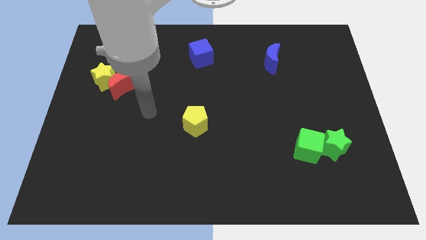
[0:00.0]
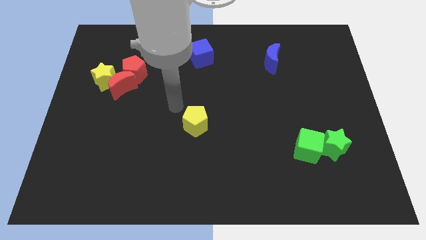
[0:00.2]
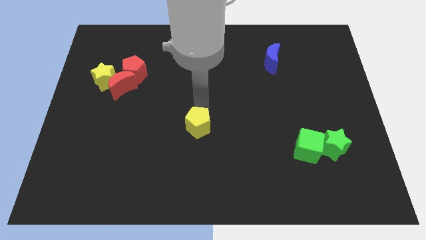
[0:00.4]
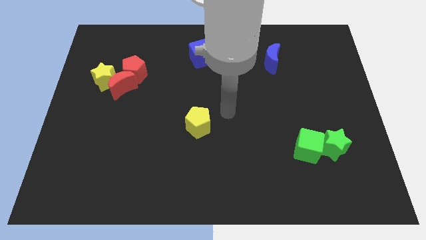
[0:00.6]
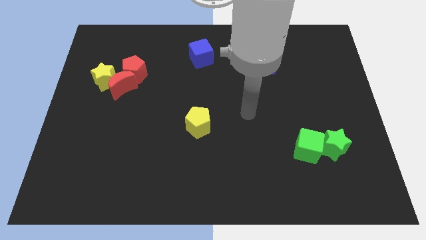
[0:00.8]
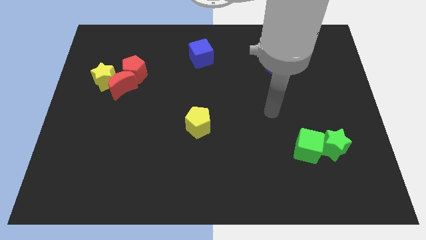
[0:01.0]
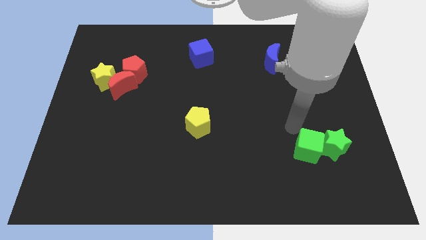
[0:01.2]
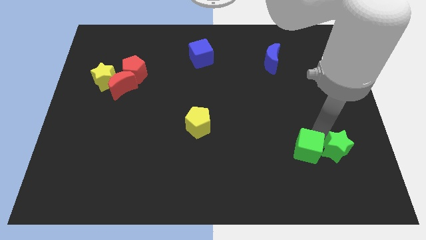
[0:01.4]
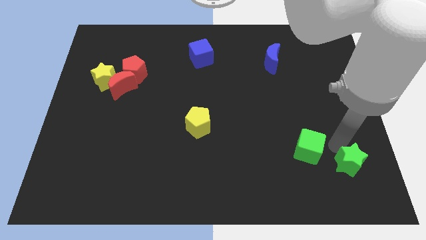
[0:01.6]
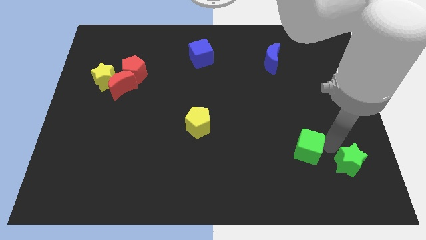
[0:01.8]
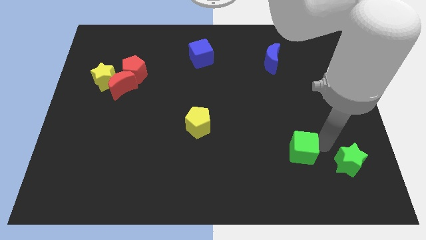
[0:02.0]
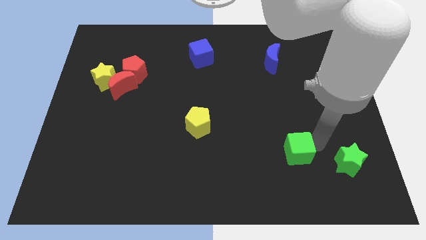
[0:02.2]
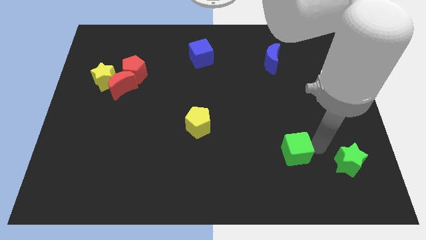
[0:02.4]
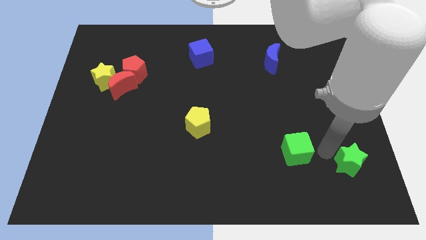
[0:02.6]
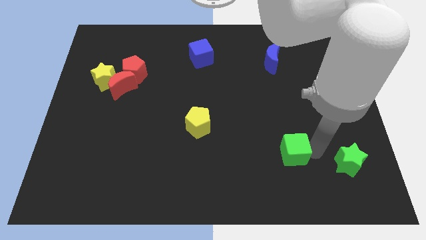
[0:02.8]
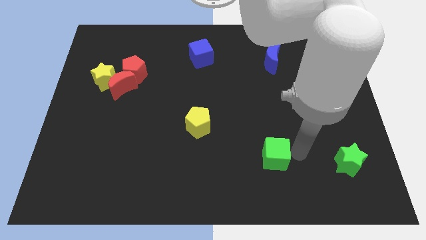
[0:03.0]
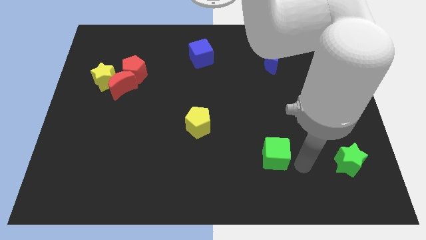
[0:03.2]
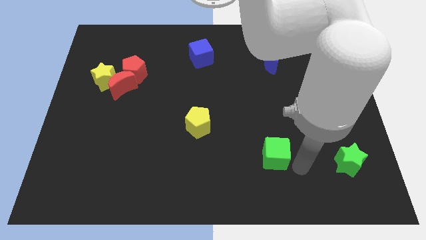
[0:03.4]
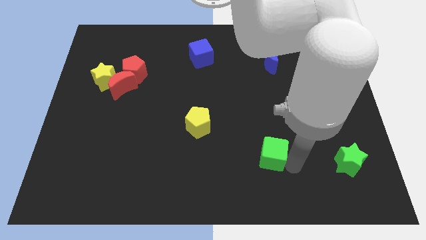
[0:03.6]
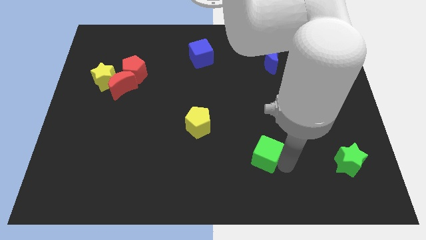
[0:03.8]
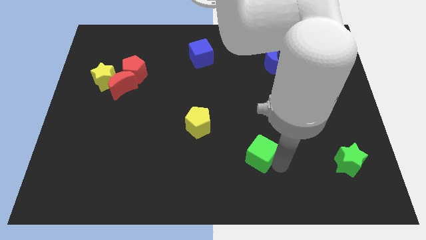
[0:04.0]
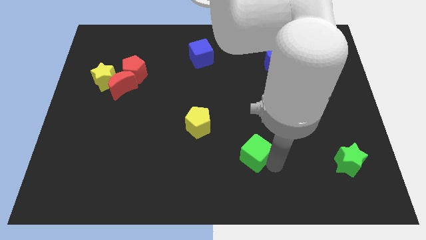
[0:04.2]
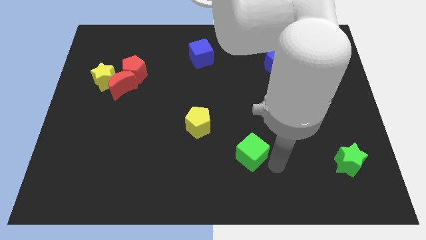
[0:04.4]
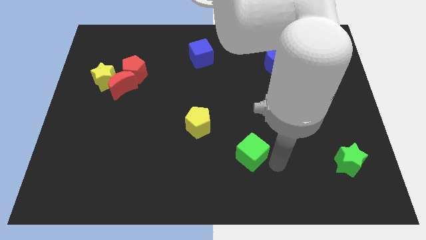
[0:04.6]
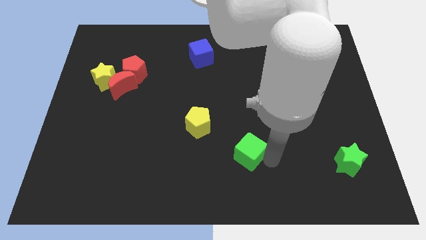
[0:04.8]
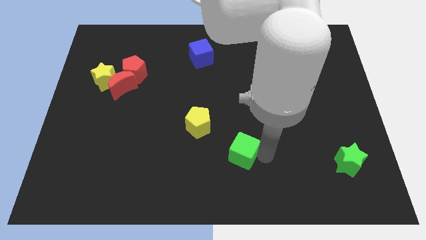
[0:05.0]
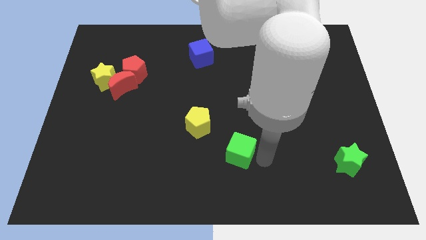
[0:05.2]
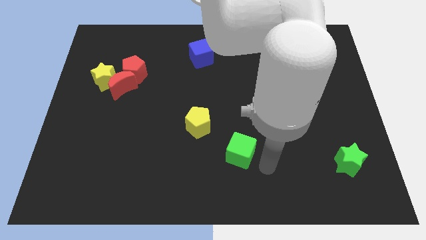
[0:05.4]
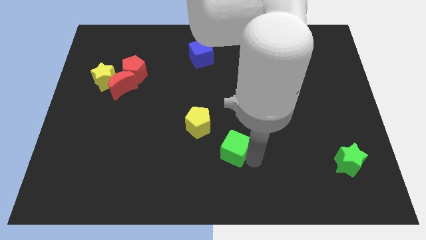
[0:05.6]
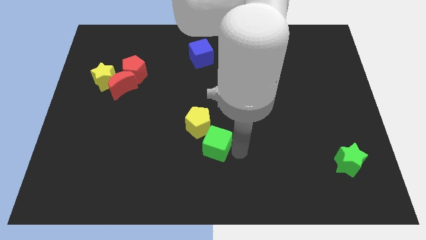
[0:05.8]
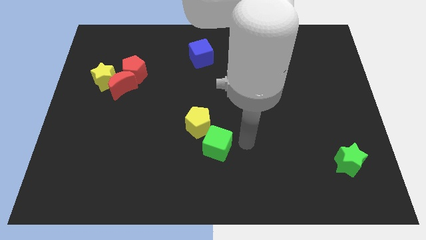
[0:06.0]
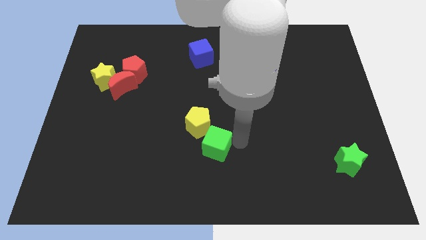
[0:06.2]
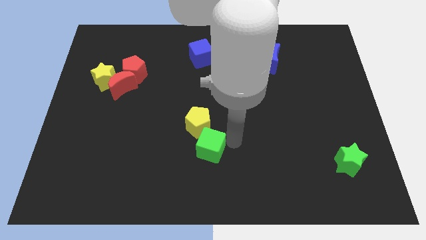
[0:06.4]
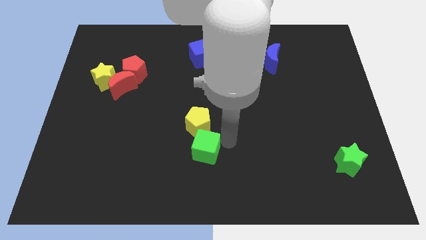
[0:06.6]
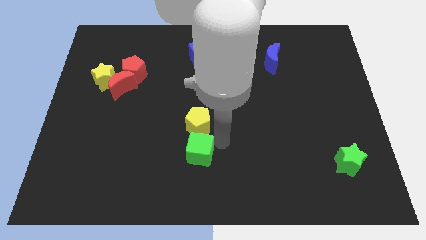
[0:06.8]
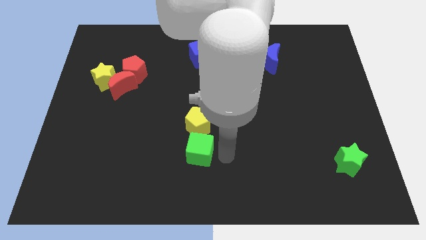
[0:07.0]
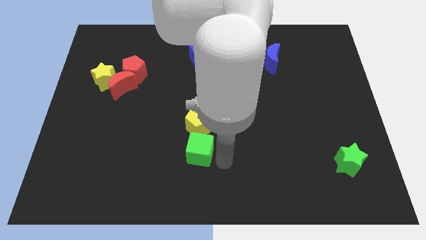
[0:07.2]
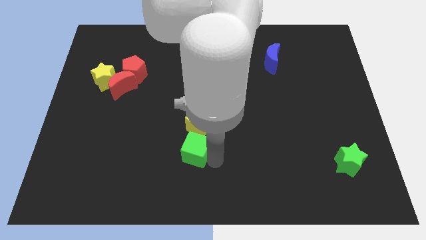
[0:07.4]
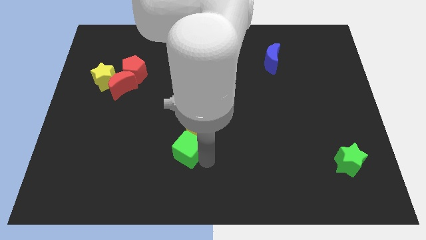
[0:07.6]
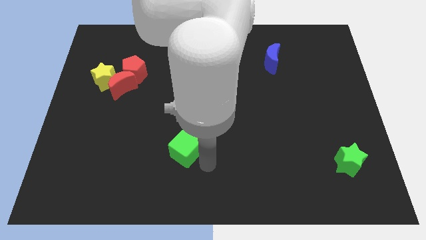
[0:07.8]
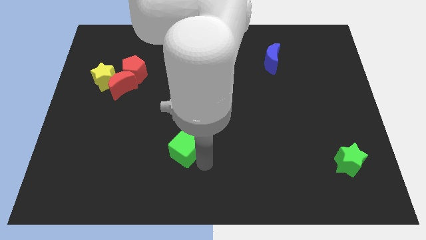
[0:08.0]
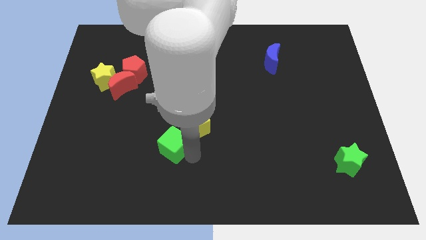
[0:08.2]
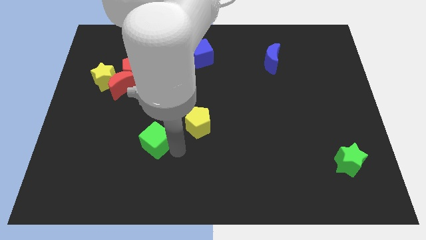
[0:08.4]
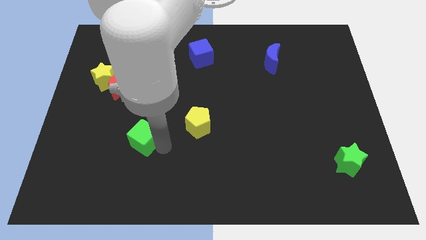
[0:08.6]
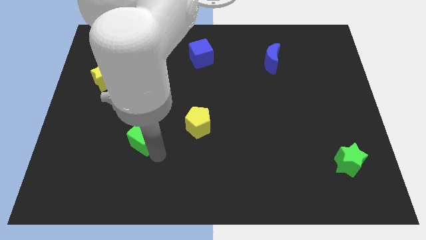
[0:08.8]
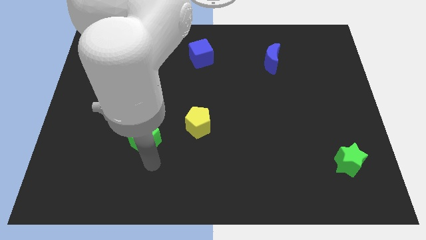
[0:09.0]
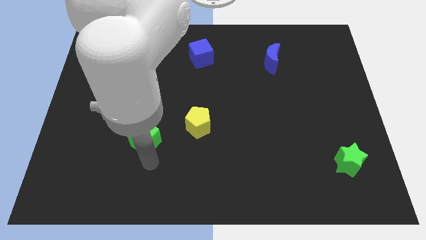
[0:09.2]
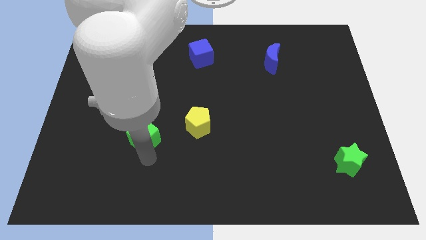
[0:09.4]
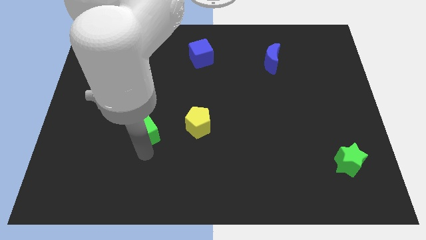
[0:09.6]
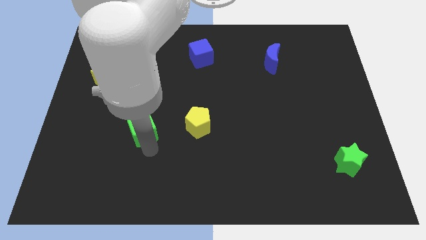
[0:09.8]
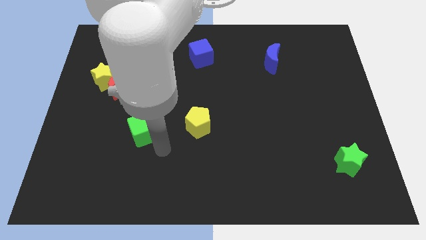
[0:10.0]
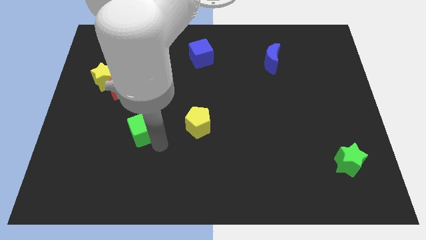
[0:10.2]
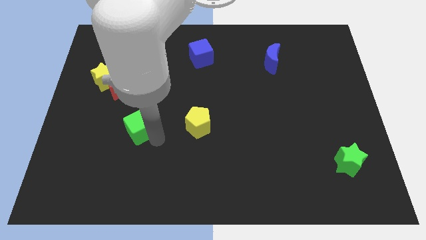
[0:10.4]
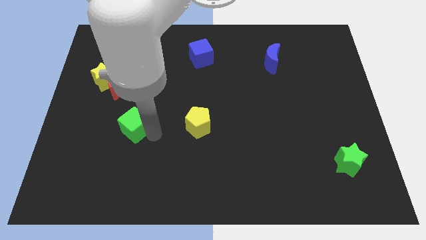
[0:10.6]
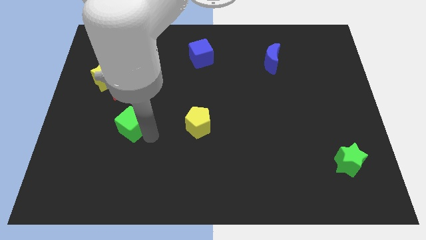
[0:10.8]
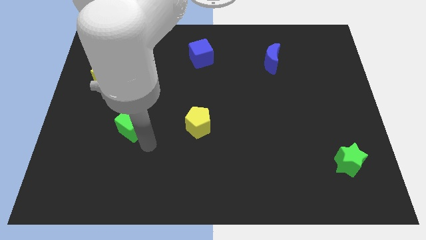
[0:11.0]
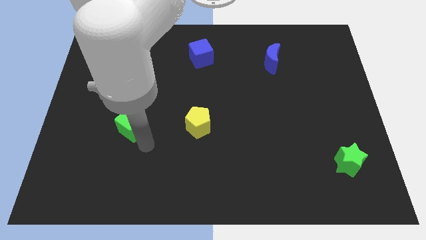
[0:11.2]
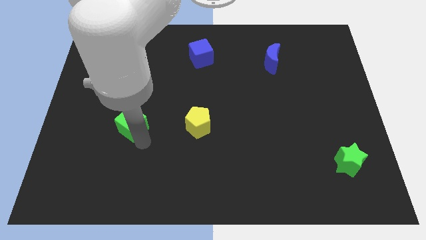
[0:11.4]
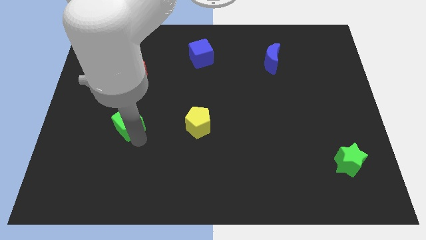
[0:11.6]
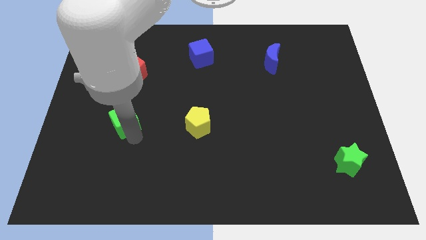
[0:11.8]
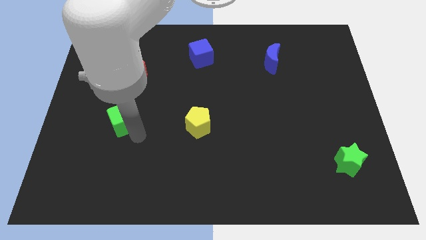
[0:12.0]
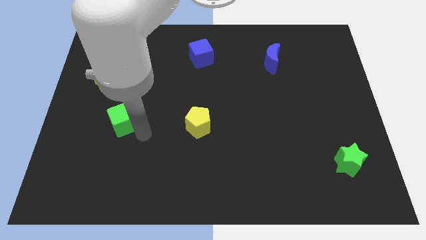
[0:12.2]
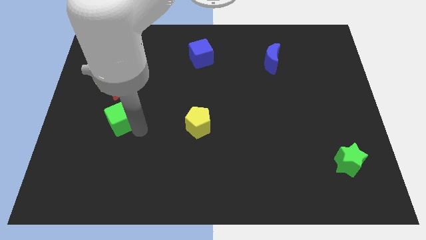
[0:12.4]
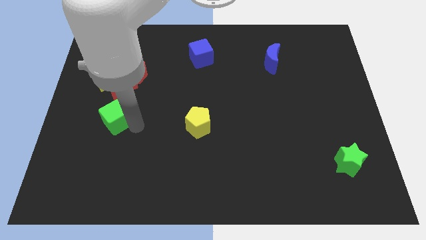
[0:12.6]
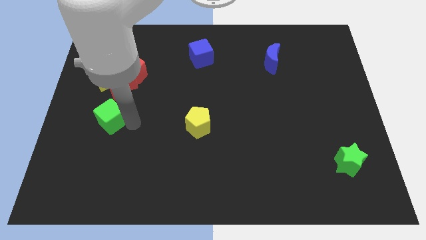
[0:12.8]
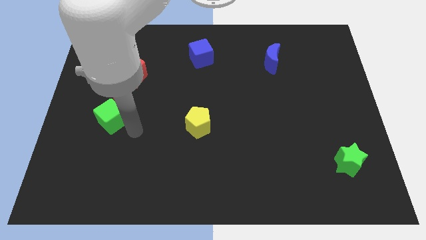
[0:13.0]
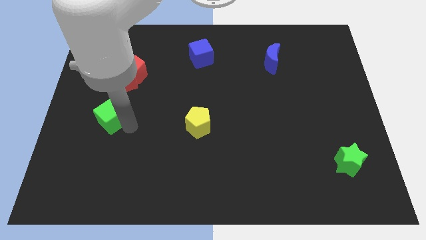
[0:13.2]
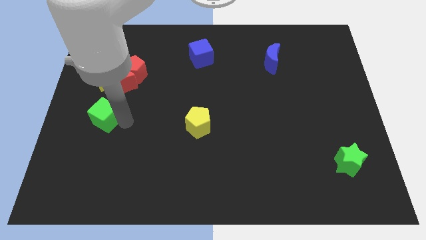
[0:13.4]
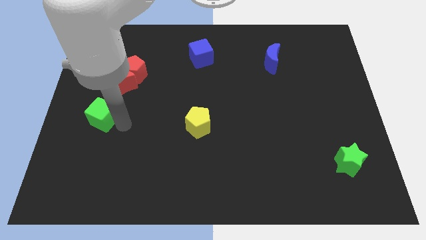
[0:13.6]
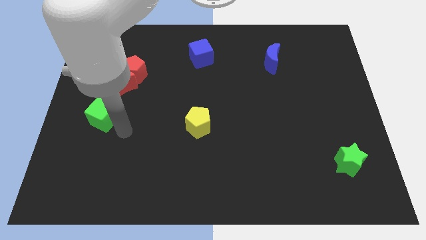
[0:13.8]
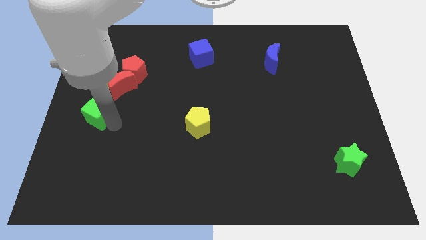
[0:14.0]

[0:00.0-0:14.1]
move the green cube to the left side of the board
